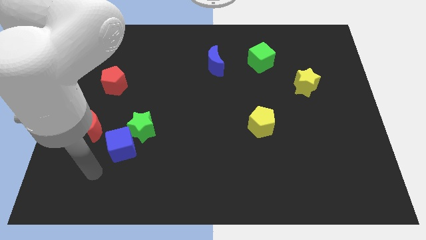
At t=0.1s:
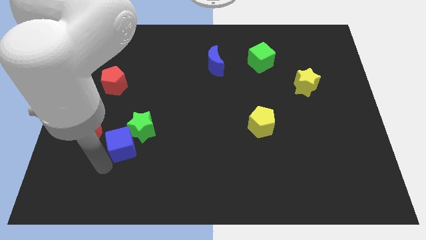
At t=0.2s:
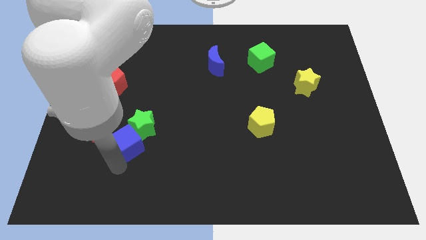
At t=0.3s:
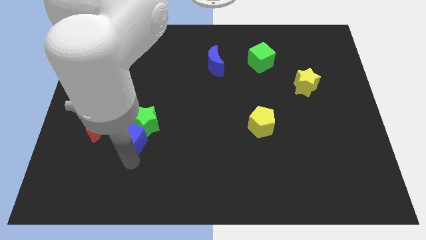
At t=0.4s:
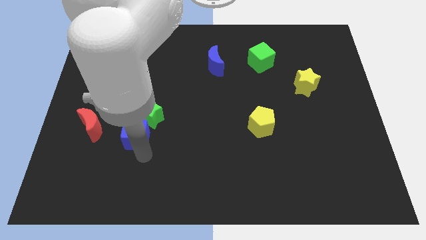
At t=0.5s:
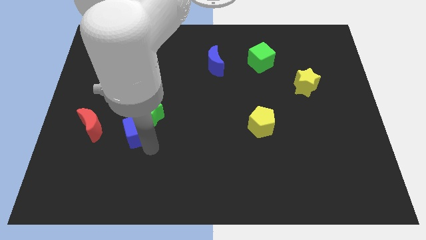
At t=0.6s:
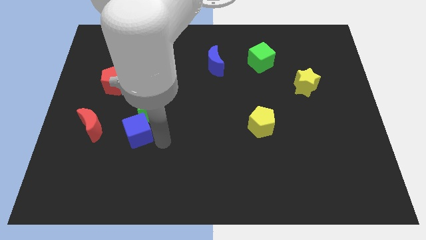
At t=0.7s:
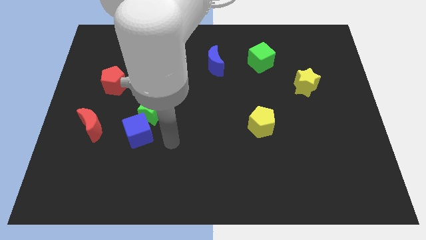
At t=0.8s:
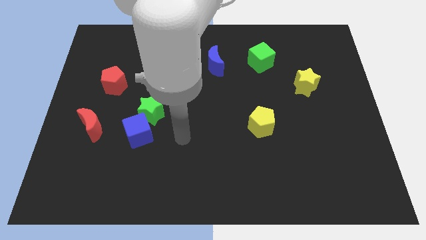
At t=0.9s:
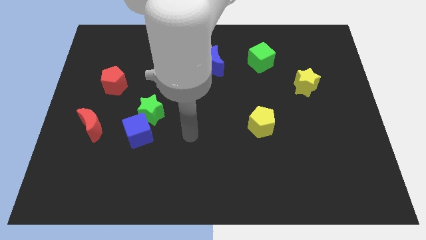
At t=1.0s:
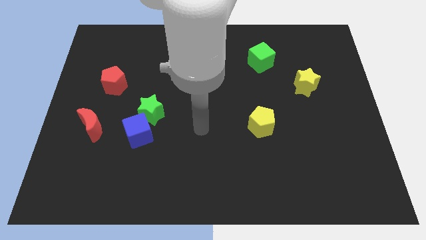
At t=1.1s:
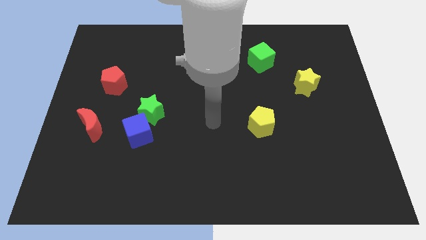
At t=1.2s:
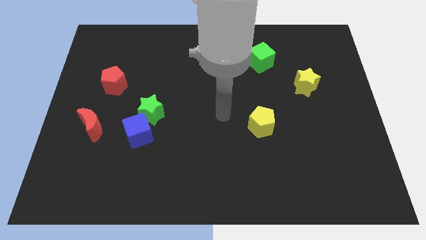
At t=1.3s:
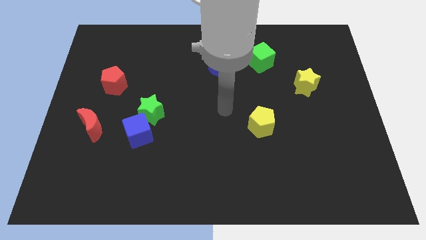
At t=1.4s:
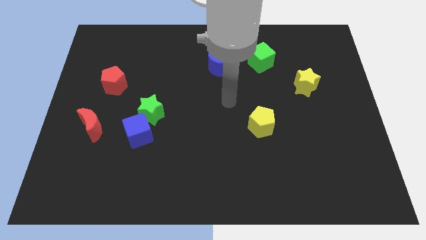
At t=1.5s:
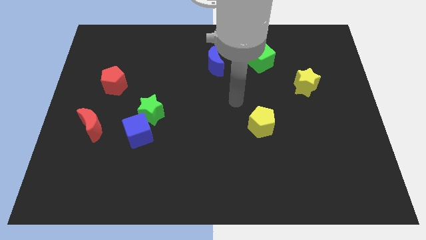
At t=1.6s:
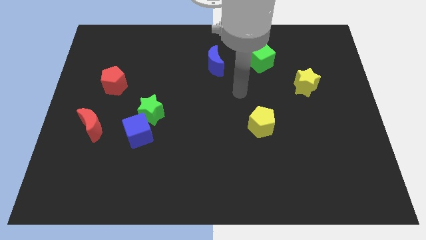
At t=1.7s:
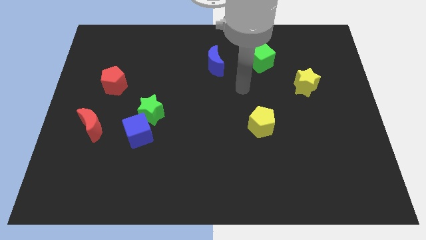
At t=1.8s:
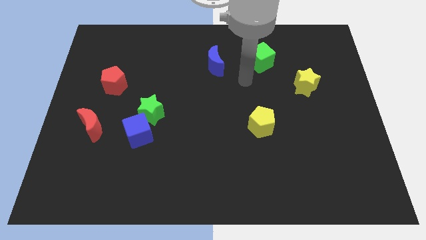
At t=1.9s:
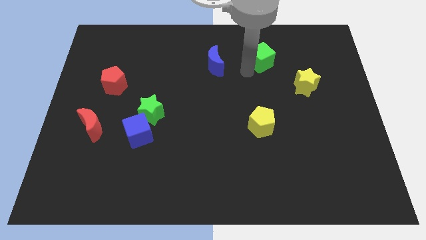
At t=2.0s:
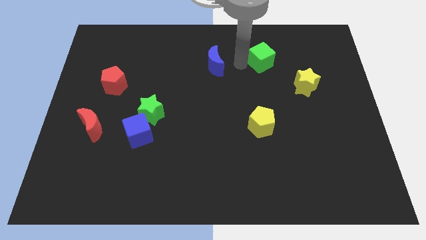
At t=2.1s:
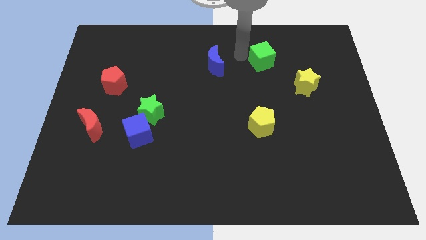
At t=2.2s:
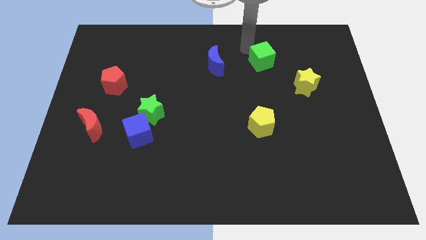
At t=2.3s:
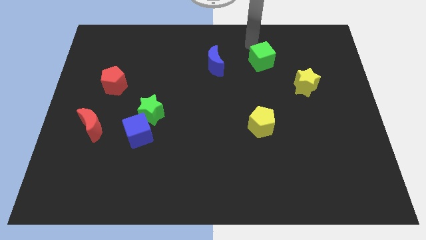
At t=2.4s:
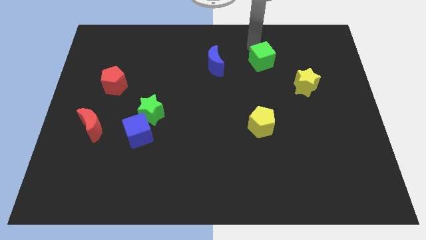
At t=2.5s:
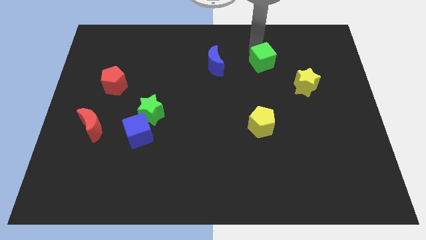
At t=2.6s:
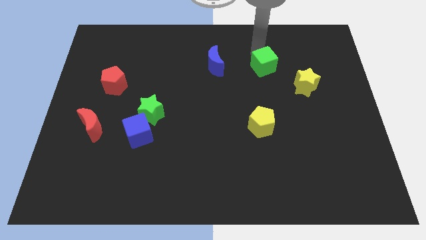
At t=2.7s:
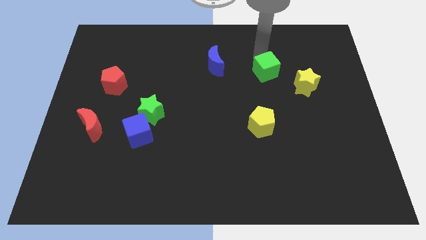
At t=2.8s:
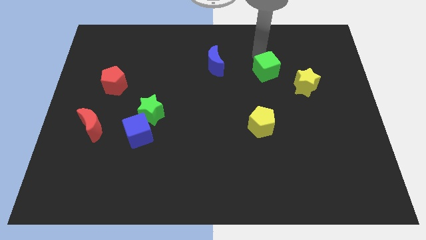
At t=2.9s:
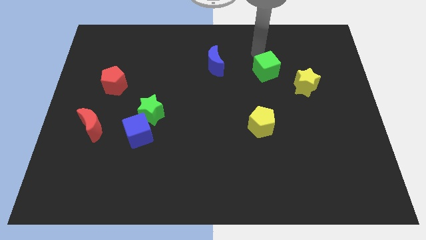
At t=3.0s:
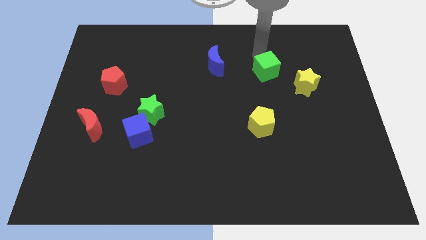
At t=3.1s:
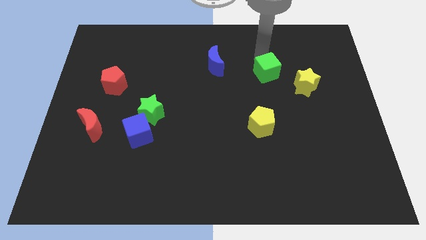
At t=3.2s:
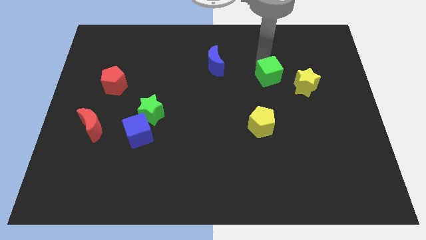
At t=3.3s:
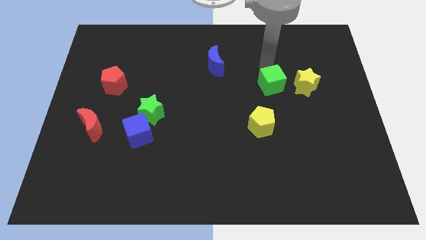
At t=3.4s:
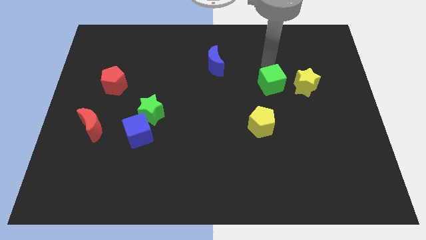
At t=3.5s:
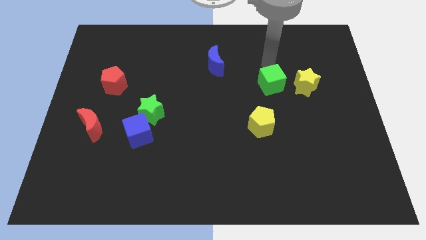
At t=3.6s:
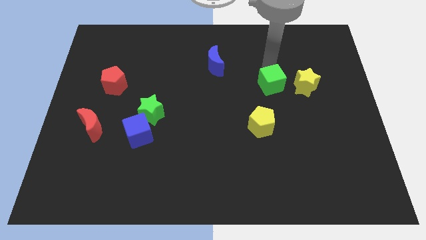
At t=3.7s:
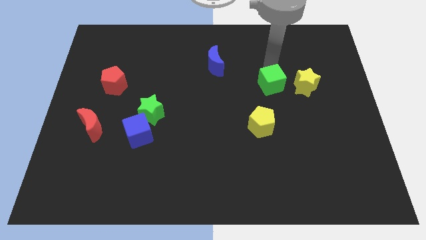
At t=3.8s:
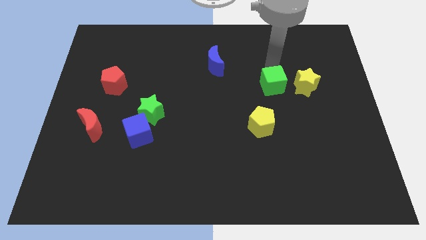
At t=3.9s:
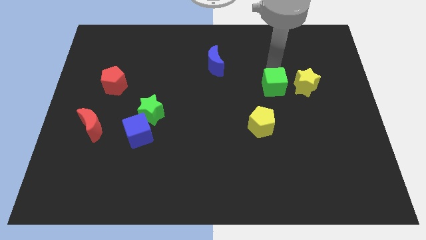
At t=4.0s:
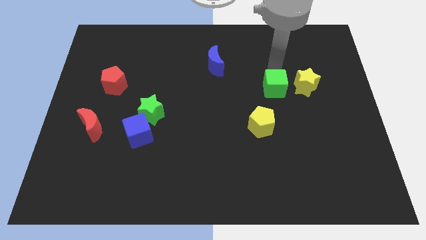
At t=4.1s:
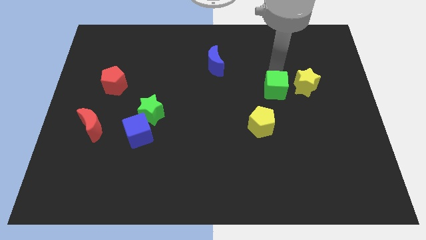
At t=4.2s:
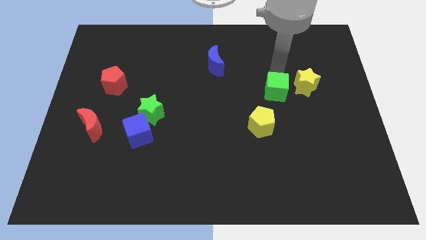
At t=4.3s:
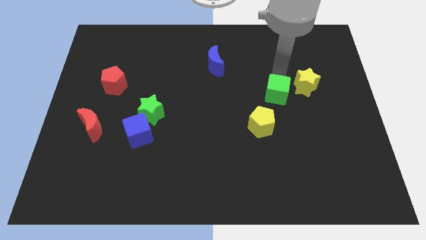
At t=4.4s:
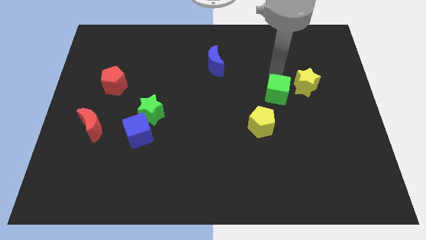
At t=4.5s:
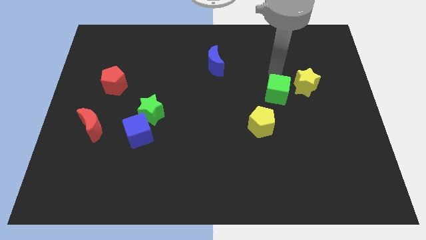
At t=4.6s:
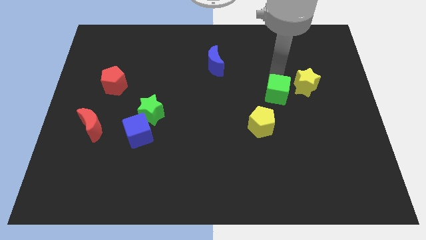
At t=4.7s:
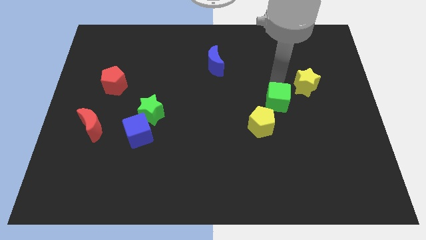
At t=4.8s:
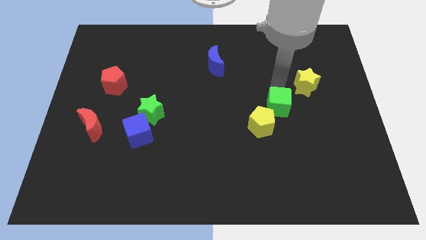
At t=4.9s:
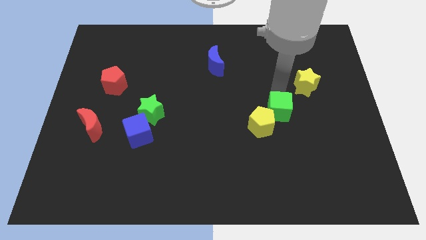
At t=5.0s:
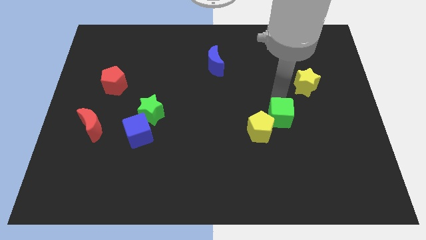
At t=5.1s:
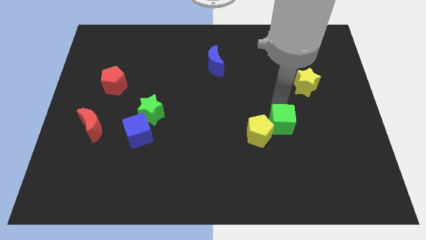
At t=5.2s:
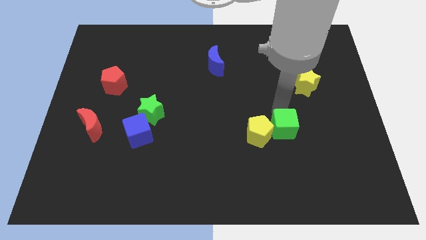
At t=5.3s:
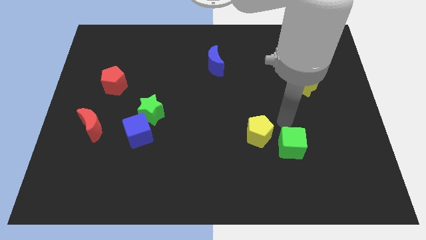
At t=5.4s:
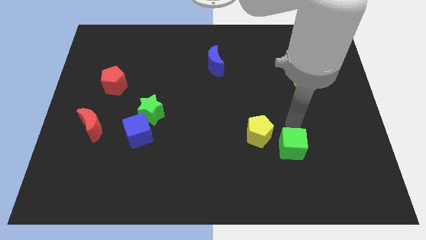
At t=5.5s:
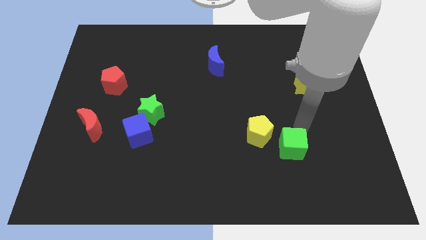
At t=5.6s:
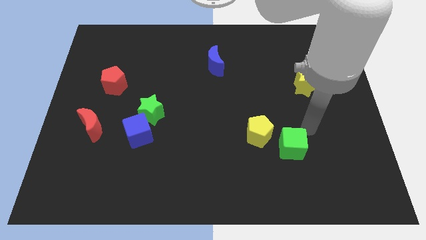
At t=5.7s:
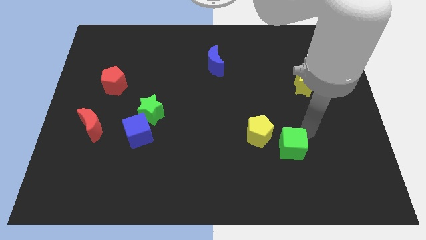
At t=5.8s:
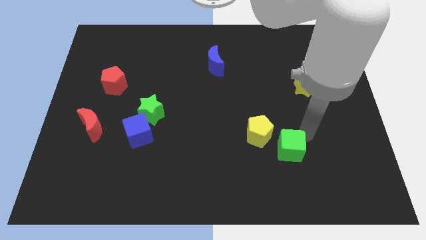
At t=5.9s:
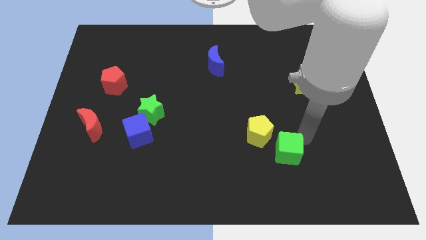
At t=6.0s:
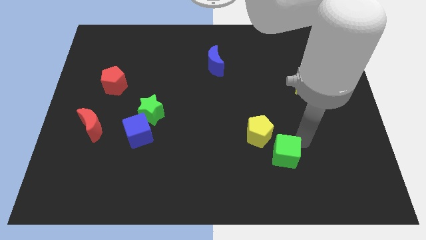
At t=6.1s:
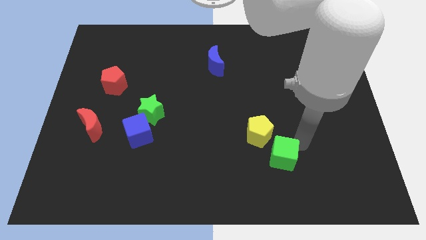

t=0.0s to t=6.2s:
move the green cube to the bottom side of the yellow pentagon

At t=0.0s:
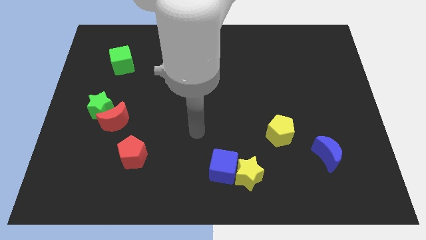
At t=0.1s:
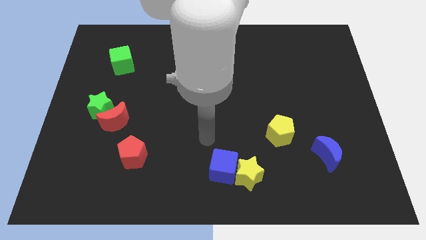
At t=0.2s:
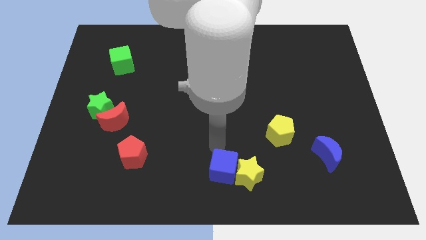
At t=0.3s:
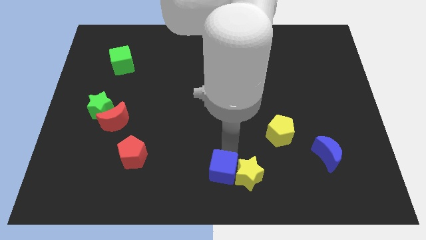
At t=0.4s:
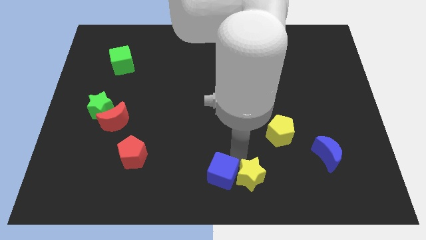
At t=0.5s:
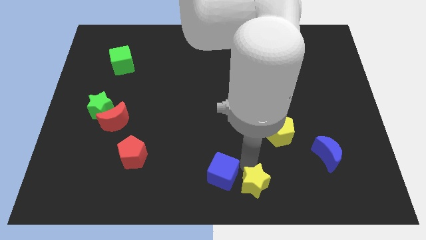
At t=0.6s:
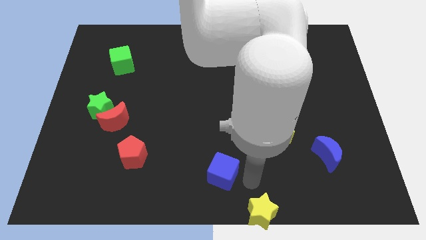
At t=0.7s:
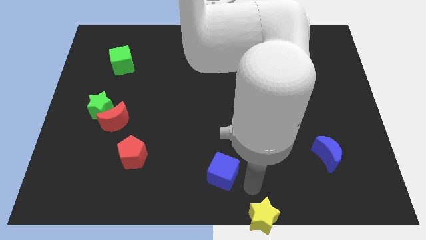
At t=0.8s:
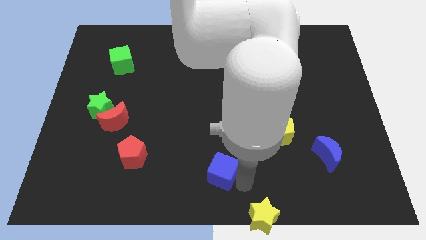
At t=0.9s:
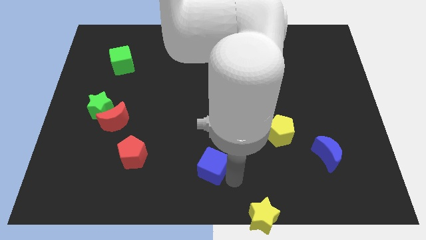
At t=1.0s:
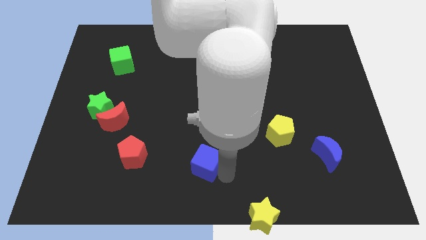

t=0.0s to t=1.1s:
put the blue cube just right of the red pentagon
